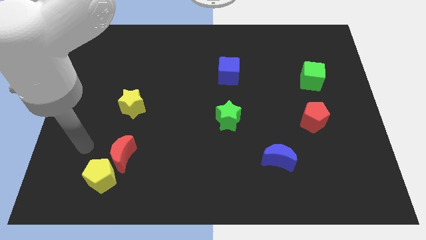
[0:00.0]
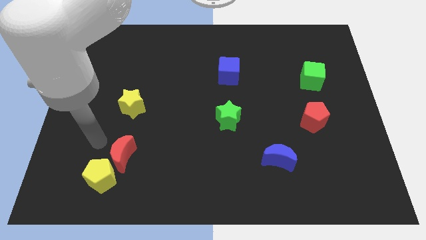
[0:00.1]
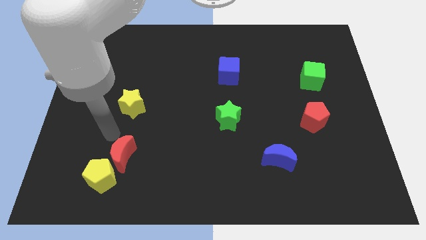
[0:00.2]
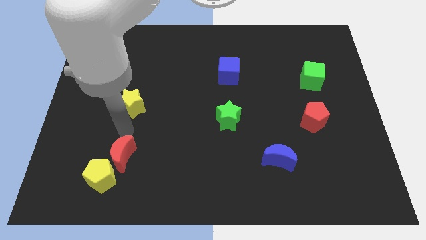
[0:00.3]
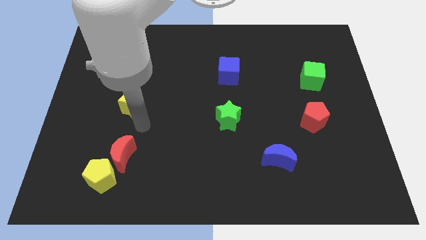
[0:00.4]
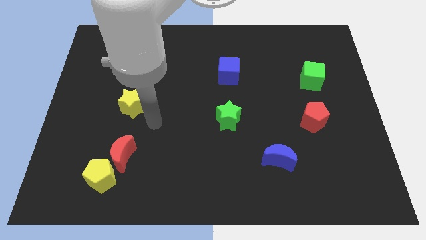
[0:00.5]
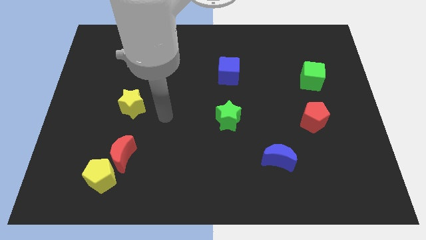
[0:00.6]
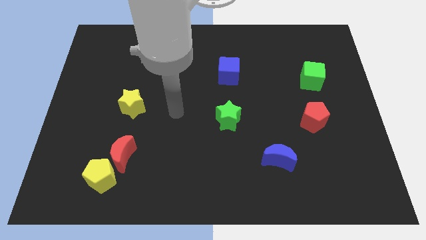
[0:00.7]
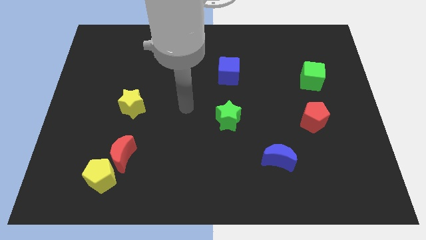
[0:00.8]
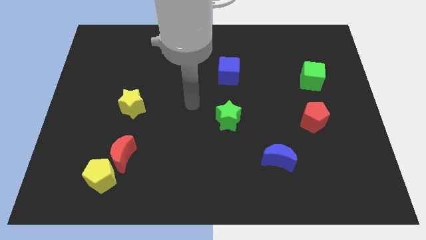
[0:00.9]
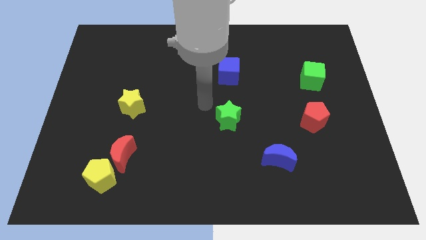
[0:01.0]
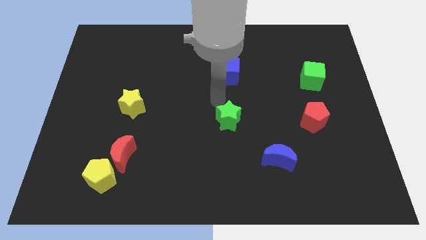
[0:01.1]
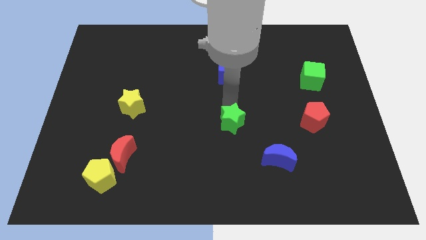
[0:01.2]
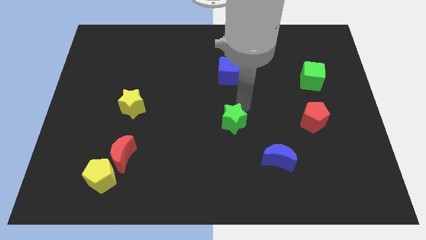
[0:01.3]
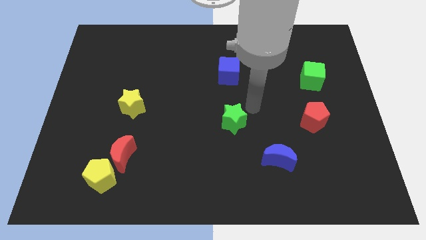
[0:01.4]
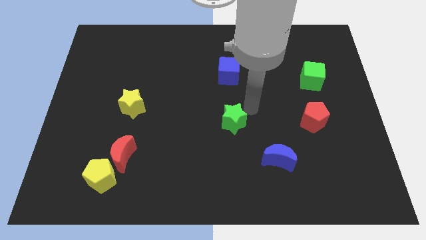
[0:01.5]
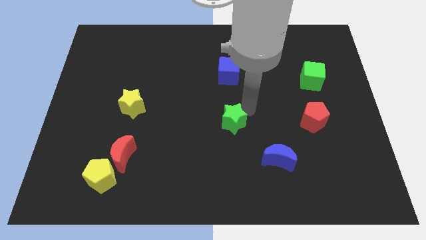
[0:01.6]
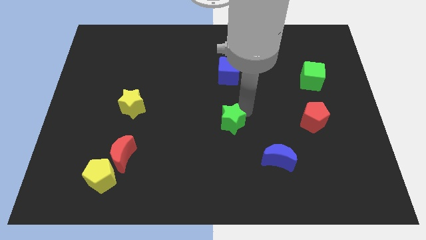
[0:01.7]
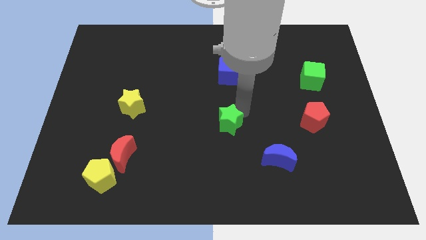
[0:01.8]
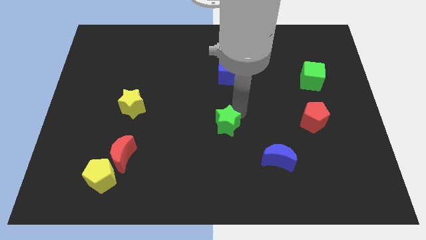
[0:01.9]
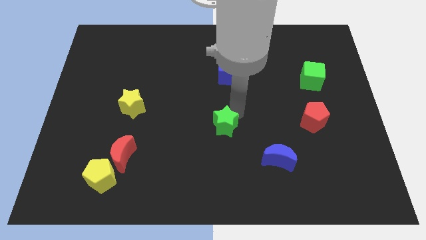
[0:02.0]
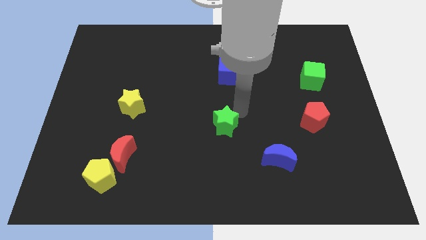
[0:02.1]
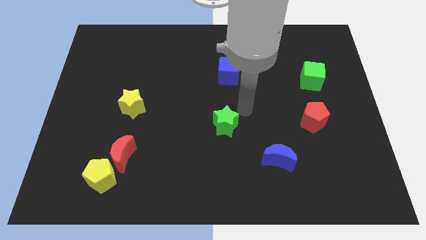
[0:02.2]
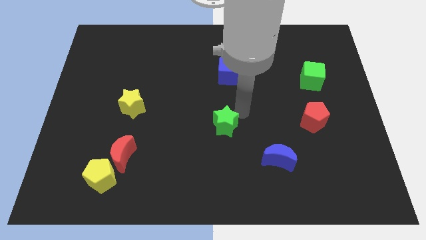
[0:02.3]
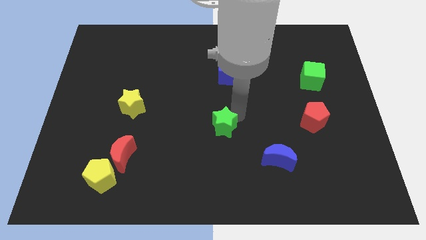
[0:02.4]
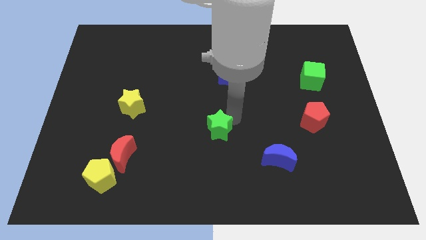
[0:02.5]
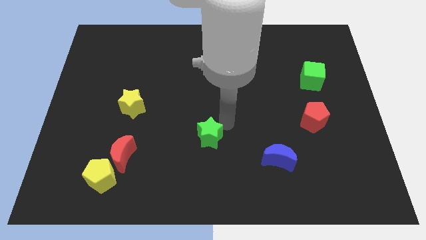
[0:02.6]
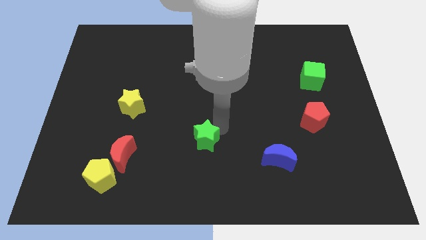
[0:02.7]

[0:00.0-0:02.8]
slightly slide the green star downwards and left

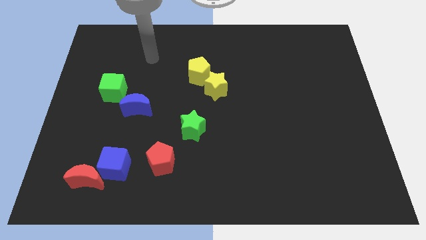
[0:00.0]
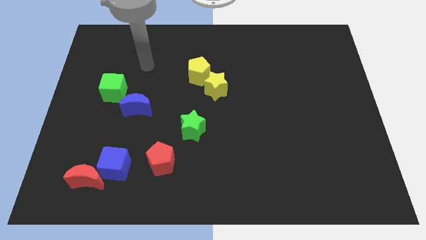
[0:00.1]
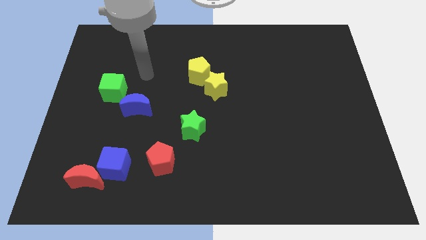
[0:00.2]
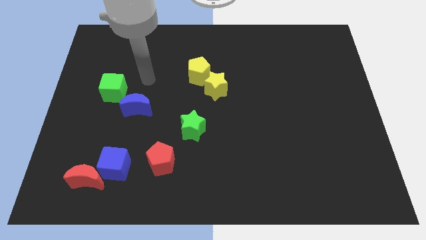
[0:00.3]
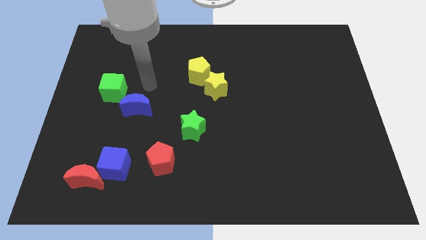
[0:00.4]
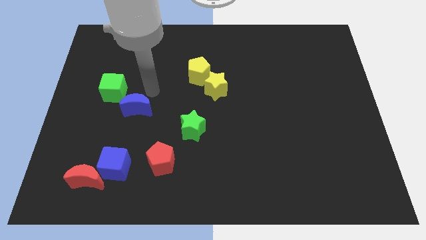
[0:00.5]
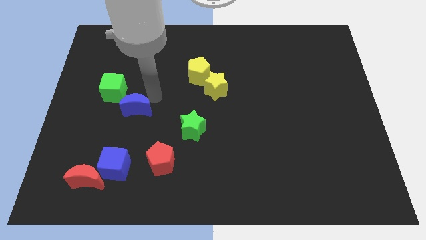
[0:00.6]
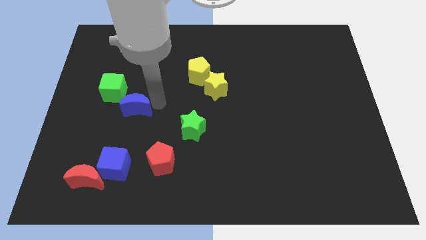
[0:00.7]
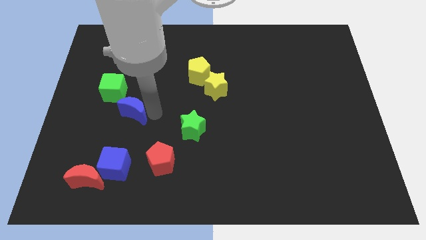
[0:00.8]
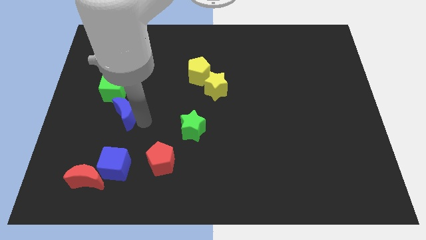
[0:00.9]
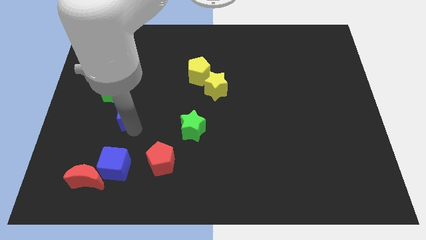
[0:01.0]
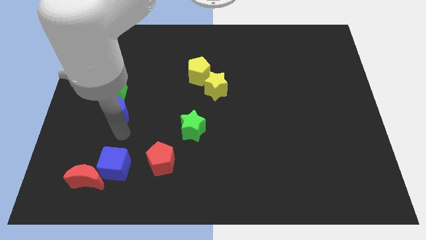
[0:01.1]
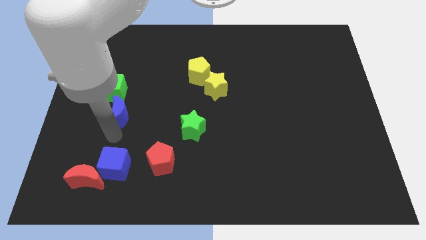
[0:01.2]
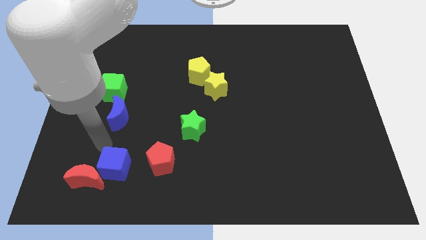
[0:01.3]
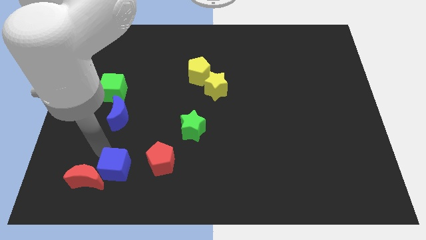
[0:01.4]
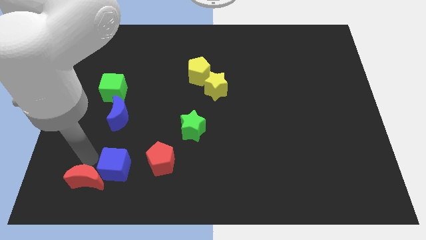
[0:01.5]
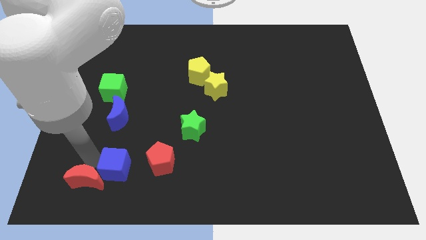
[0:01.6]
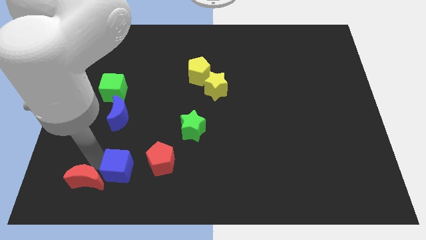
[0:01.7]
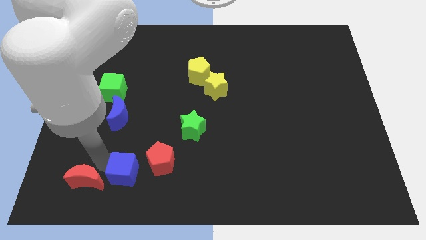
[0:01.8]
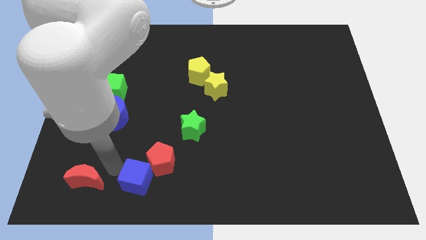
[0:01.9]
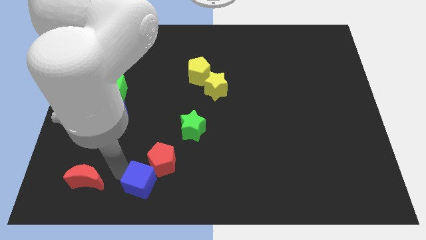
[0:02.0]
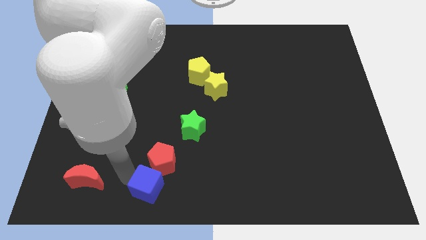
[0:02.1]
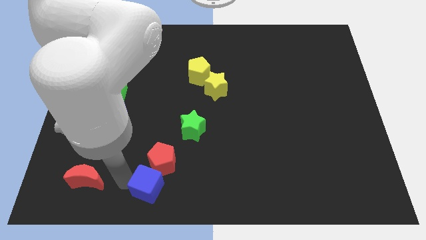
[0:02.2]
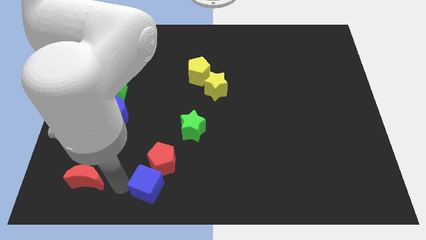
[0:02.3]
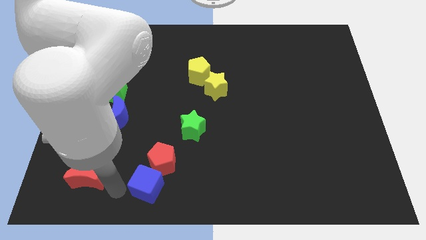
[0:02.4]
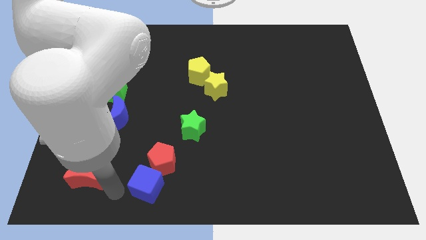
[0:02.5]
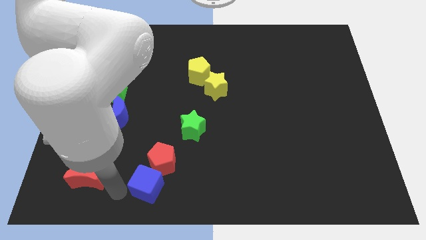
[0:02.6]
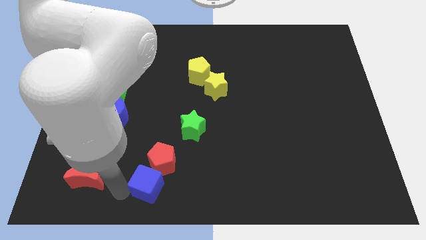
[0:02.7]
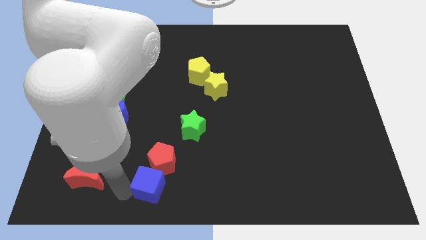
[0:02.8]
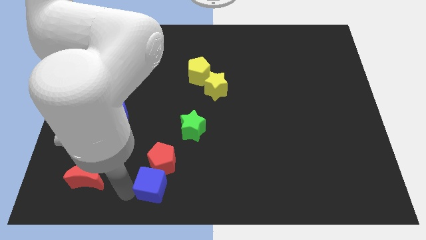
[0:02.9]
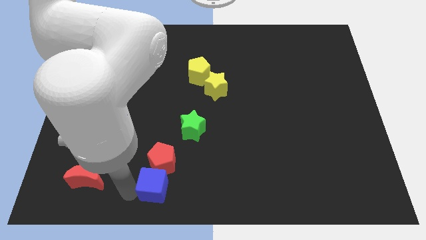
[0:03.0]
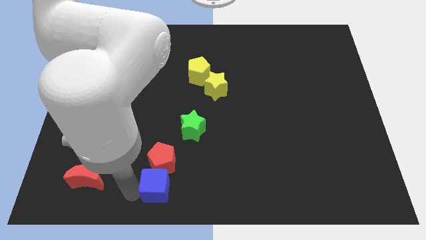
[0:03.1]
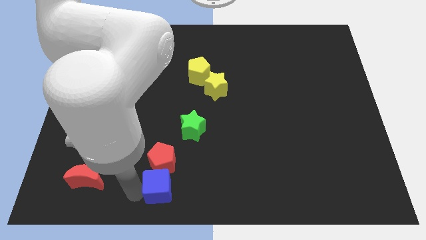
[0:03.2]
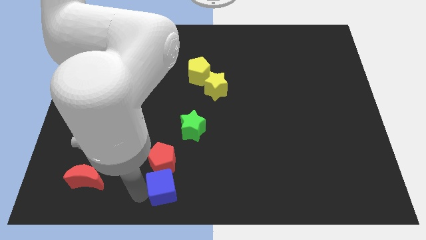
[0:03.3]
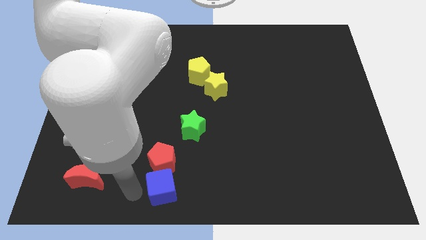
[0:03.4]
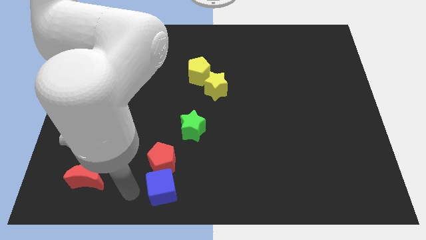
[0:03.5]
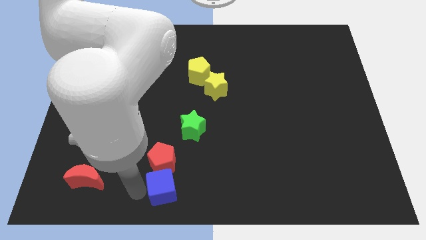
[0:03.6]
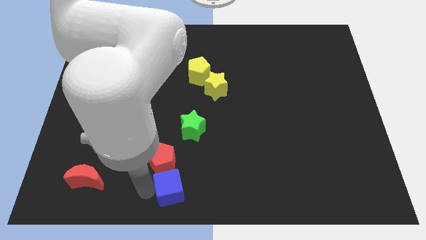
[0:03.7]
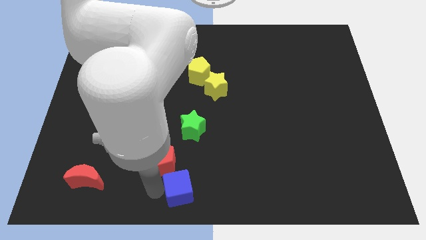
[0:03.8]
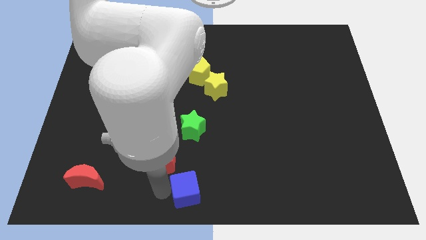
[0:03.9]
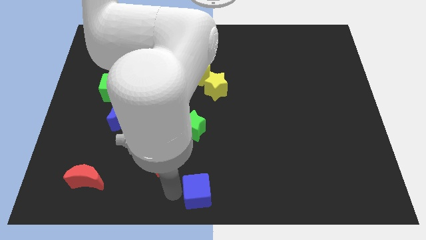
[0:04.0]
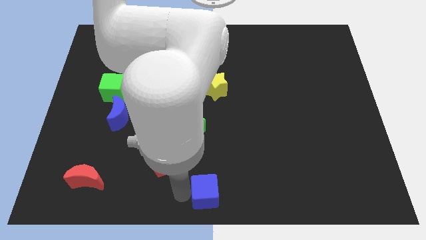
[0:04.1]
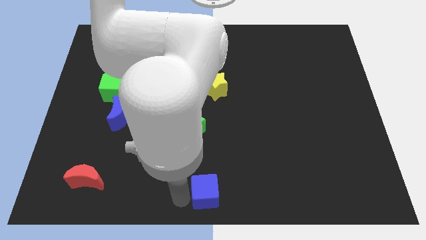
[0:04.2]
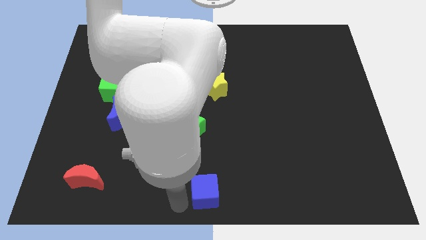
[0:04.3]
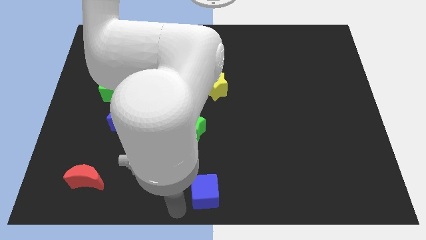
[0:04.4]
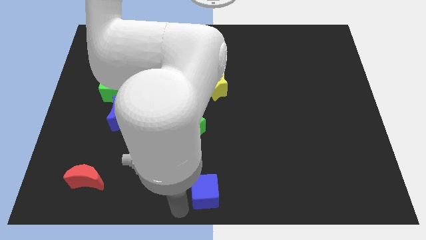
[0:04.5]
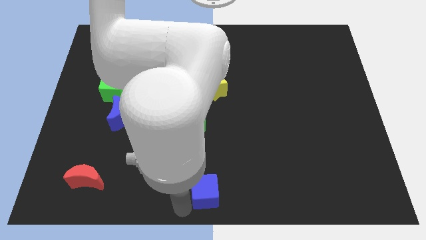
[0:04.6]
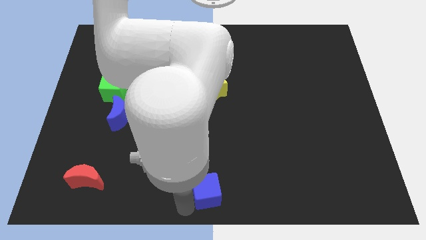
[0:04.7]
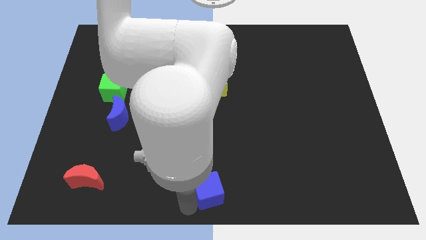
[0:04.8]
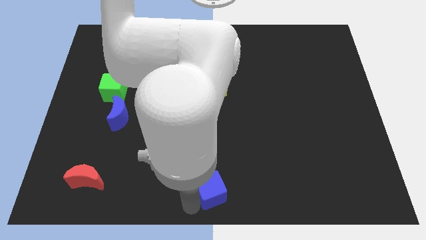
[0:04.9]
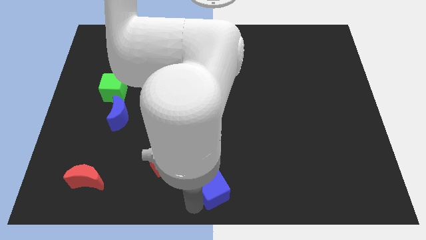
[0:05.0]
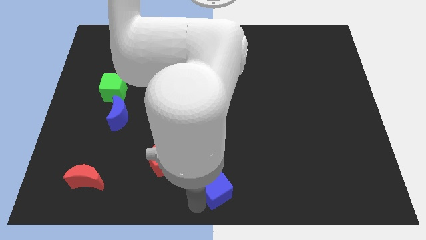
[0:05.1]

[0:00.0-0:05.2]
slide the blue cube to the right
